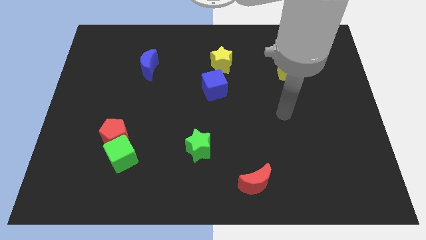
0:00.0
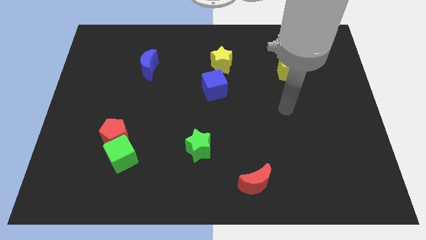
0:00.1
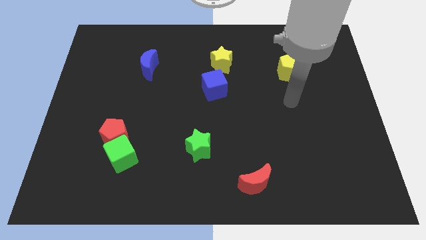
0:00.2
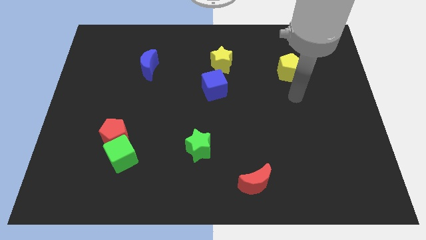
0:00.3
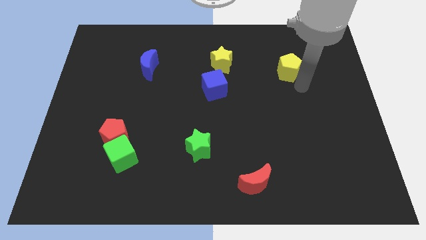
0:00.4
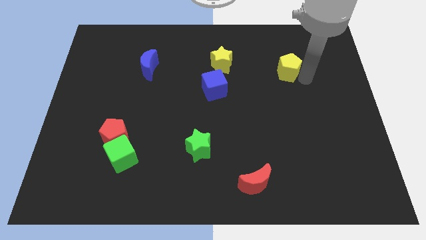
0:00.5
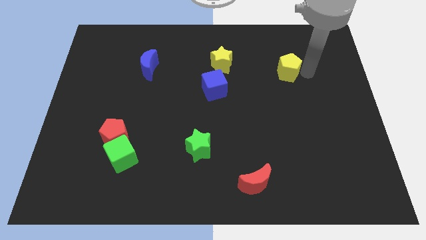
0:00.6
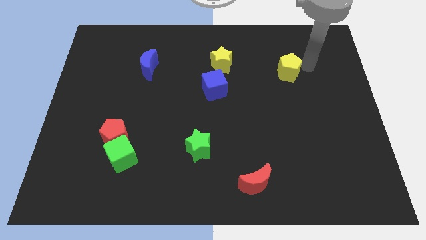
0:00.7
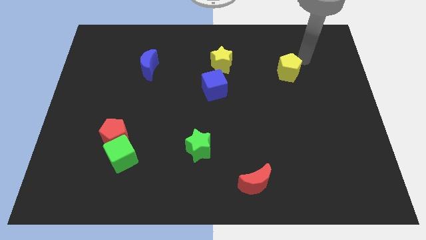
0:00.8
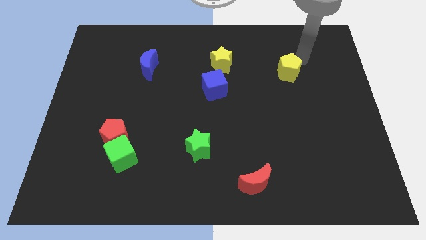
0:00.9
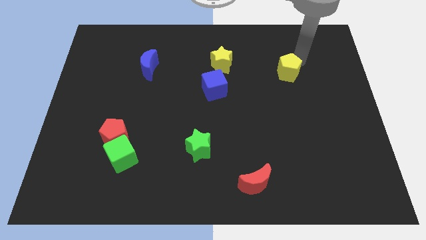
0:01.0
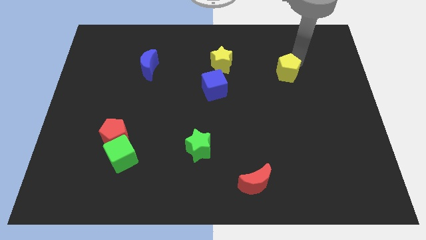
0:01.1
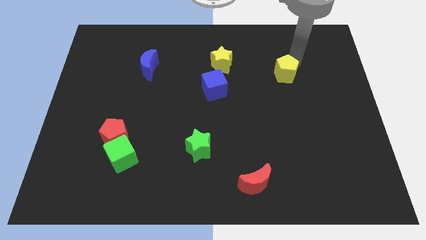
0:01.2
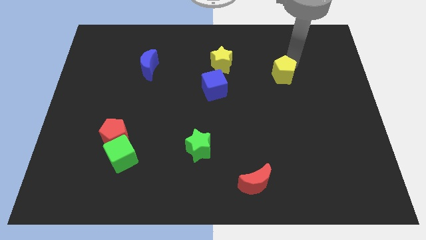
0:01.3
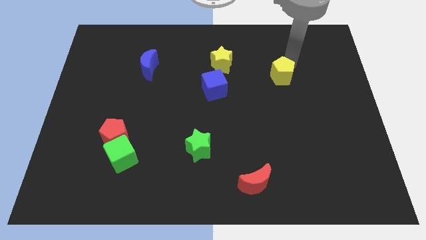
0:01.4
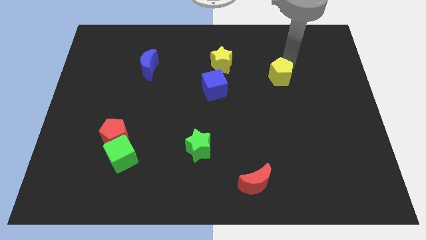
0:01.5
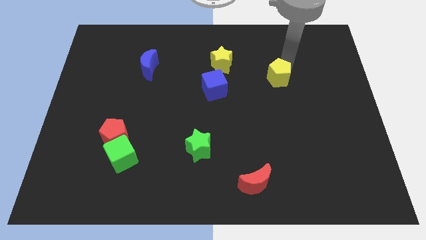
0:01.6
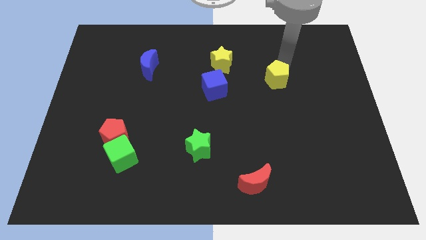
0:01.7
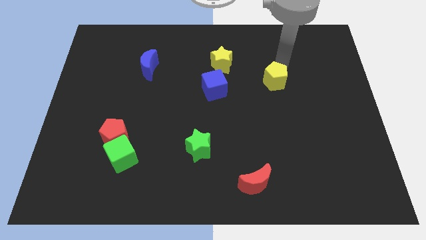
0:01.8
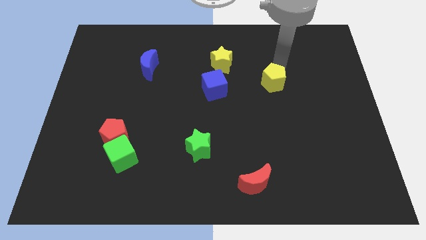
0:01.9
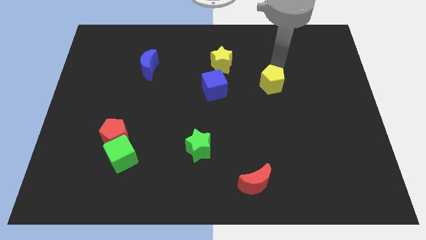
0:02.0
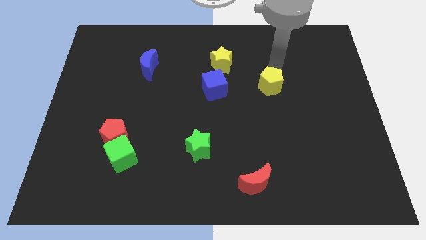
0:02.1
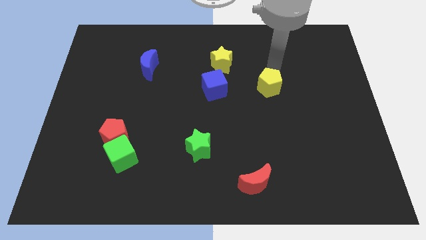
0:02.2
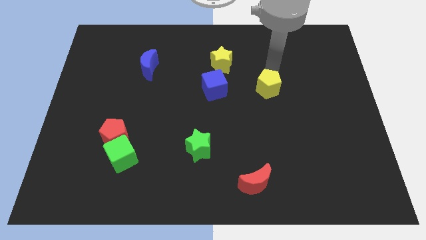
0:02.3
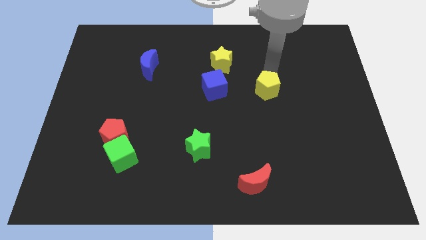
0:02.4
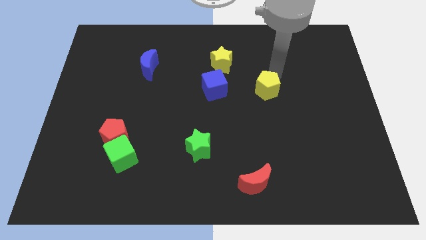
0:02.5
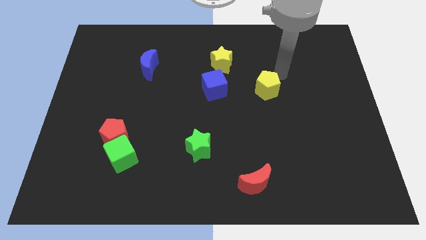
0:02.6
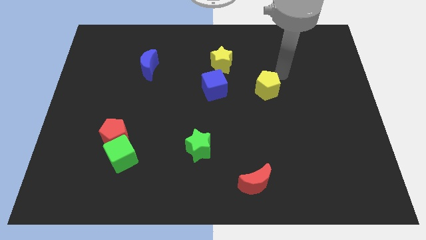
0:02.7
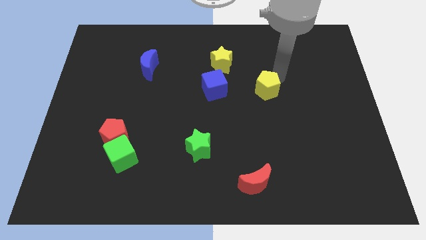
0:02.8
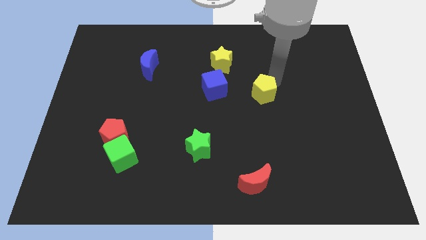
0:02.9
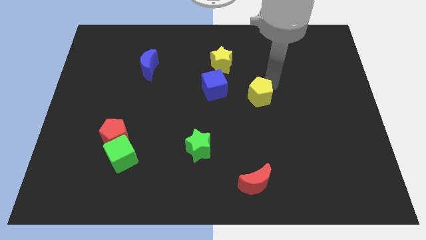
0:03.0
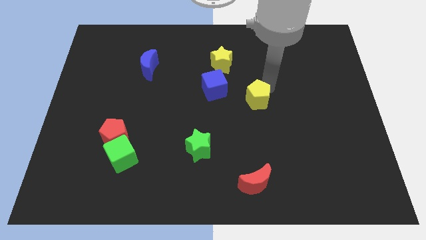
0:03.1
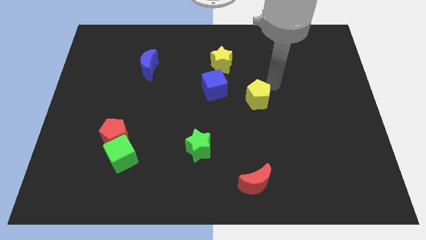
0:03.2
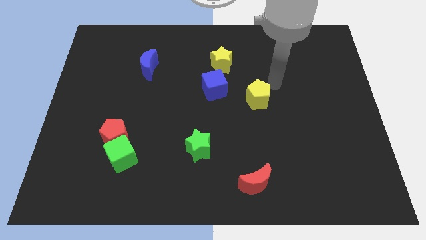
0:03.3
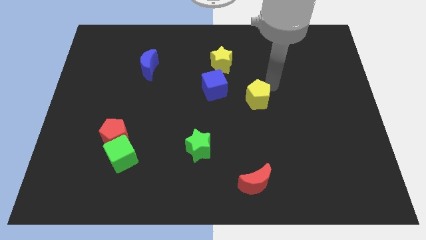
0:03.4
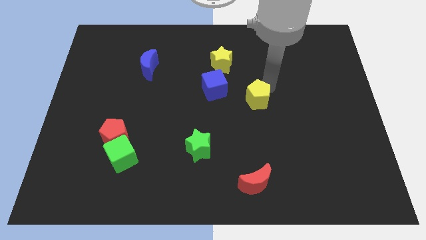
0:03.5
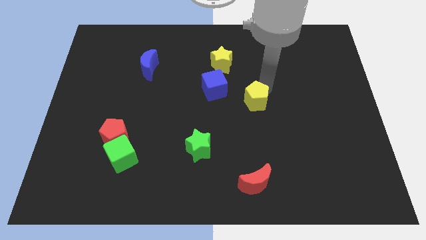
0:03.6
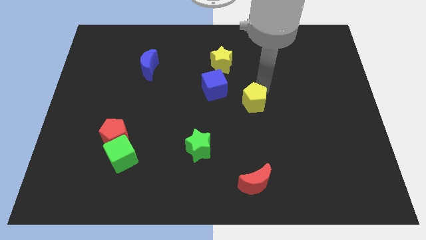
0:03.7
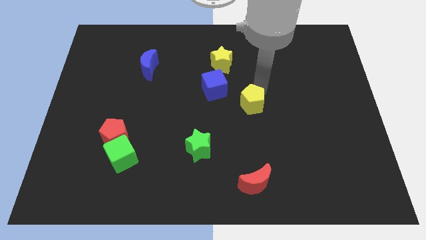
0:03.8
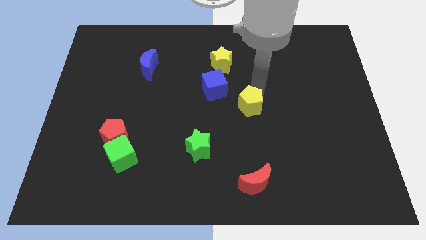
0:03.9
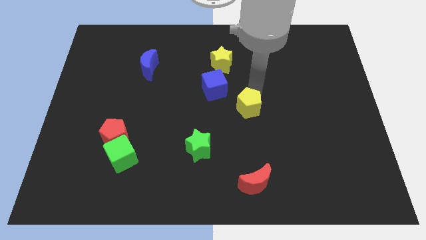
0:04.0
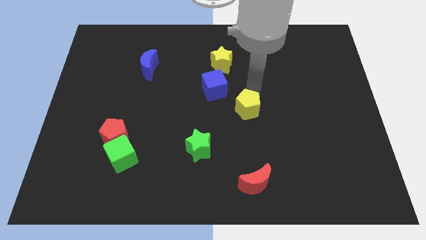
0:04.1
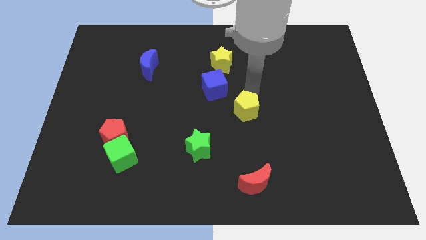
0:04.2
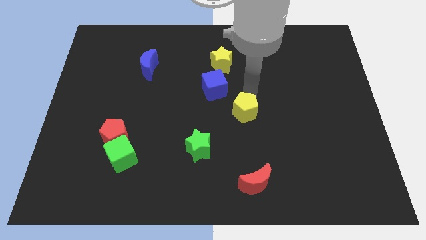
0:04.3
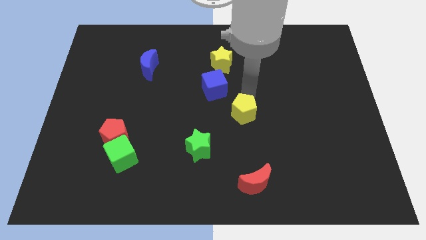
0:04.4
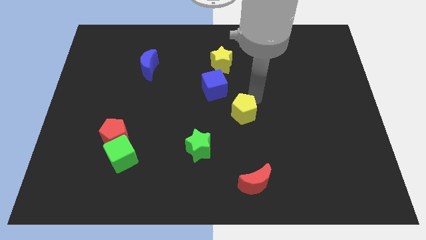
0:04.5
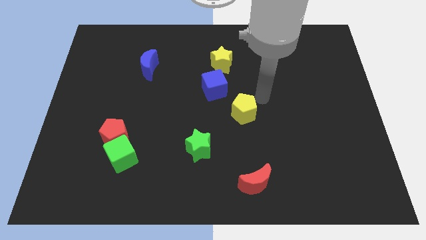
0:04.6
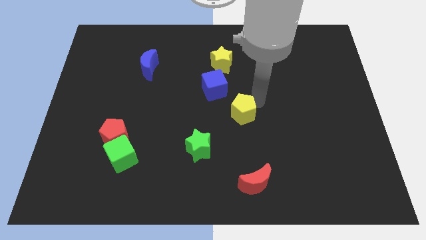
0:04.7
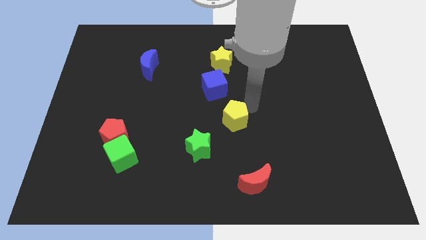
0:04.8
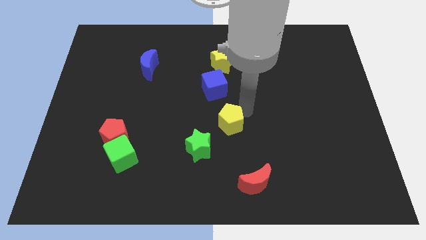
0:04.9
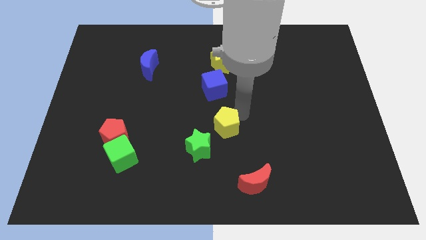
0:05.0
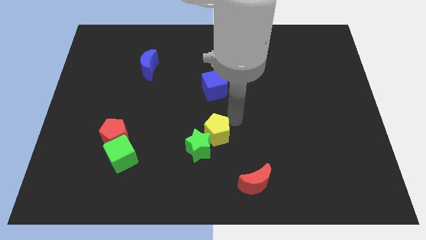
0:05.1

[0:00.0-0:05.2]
push the yellow pentagon next to the green star

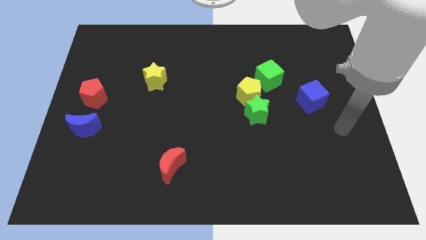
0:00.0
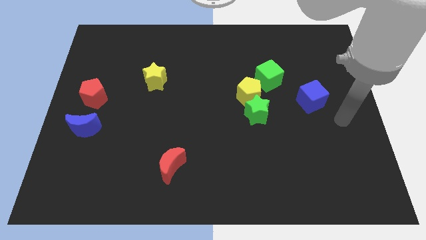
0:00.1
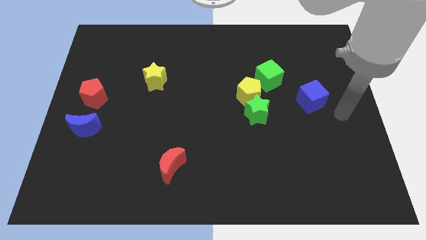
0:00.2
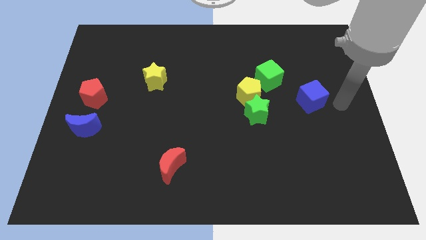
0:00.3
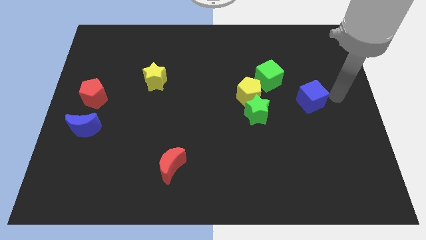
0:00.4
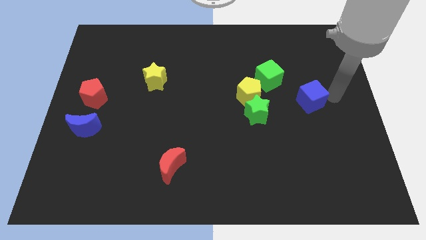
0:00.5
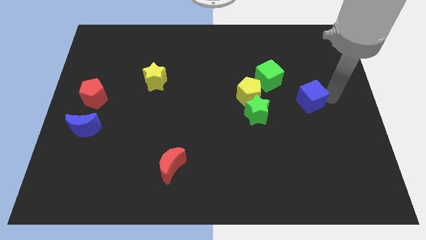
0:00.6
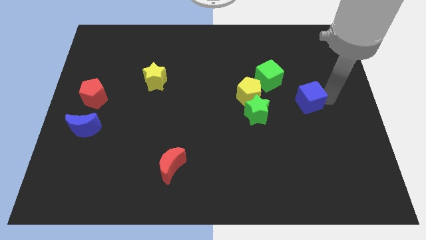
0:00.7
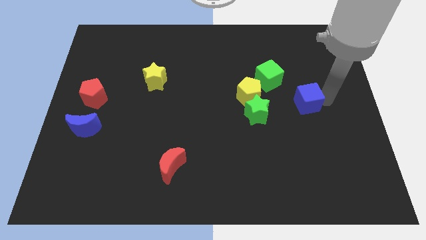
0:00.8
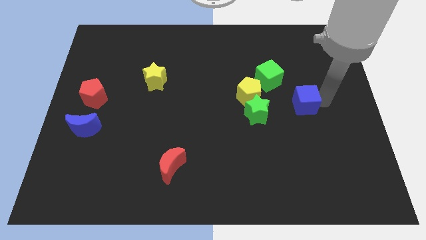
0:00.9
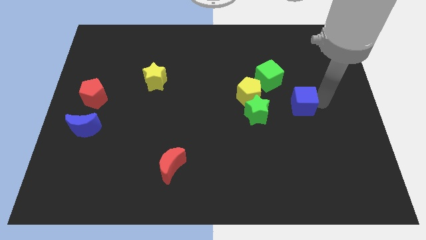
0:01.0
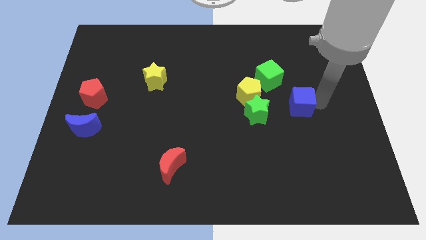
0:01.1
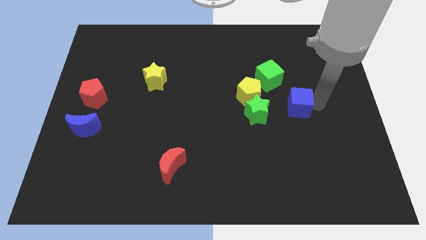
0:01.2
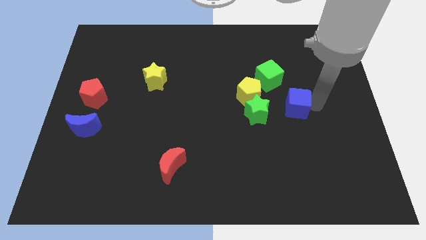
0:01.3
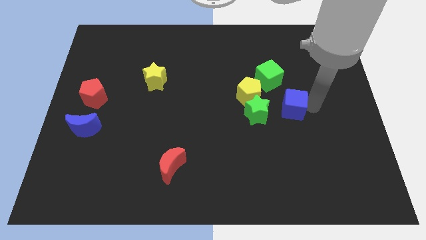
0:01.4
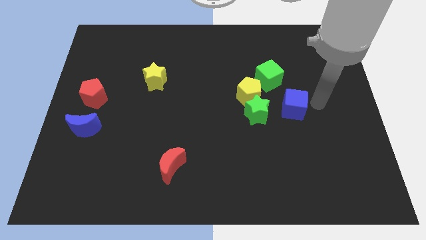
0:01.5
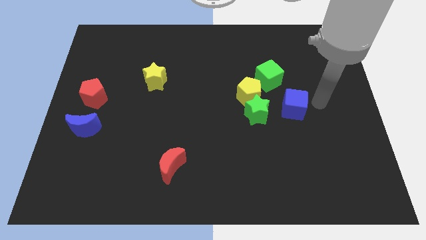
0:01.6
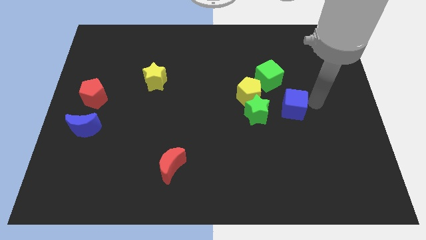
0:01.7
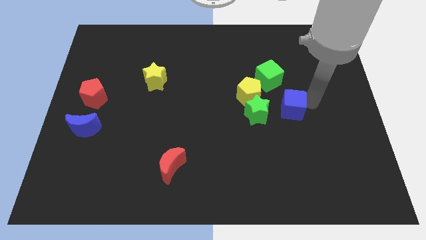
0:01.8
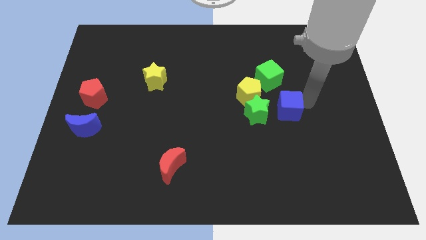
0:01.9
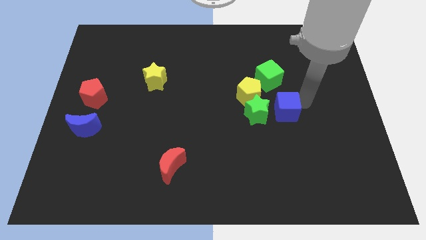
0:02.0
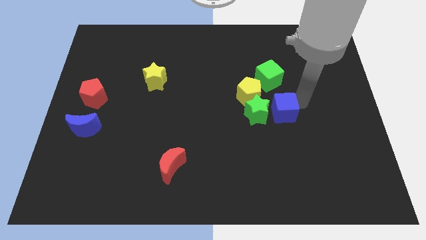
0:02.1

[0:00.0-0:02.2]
push the blue cube next to the green star
